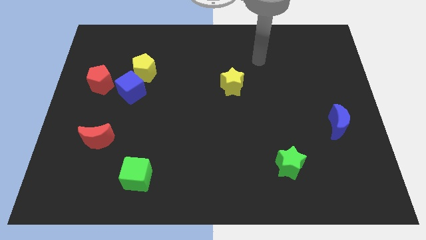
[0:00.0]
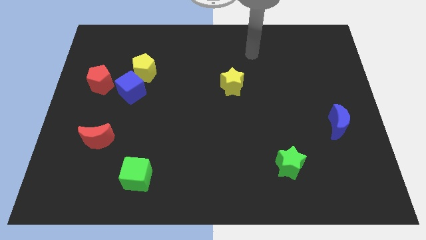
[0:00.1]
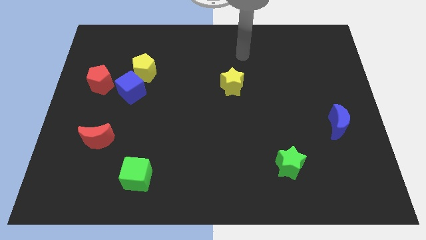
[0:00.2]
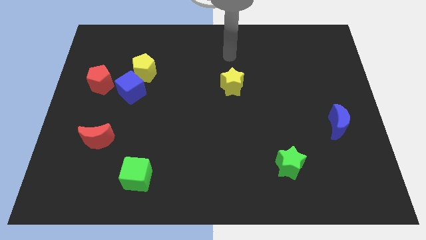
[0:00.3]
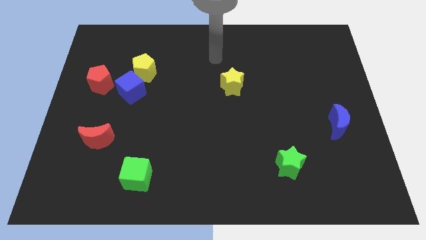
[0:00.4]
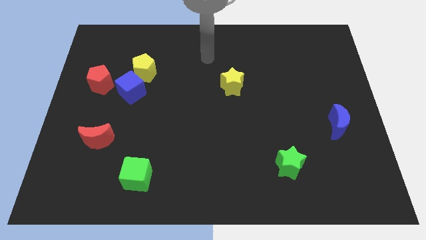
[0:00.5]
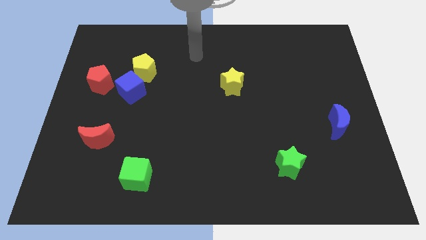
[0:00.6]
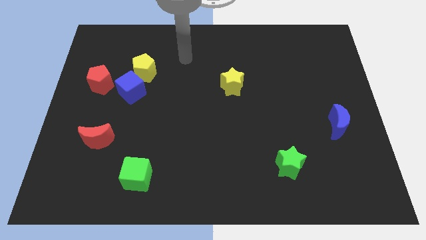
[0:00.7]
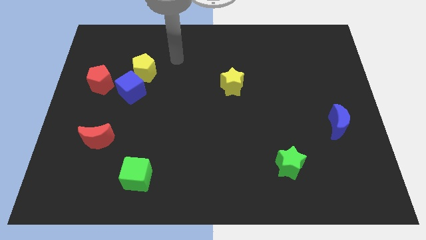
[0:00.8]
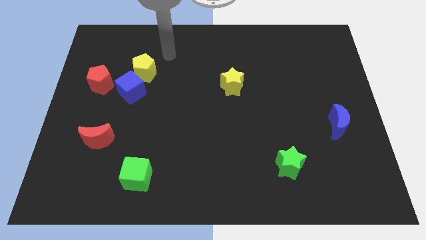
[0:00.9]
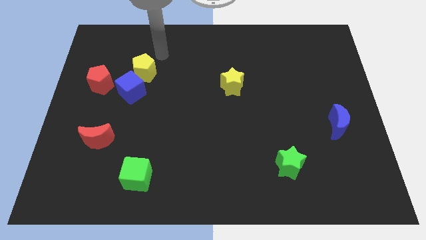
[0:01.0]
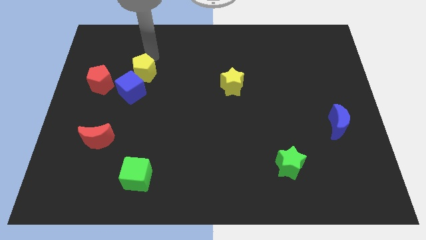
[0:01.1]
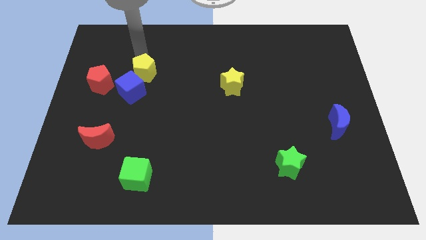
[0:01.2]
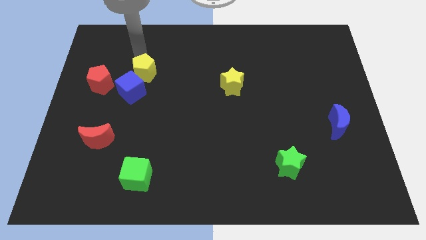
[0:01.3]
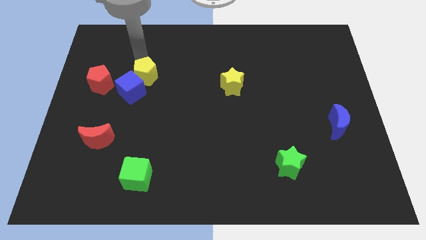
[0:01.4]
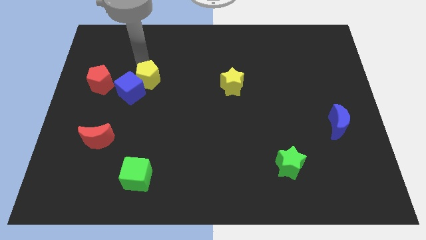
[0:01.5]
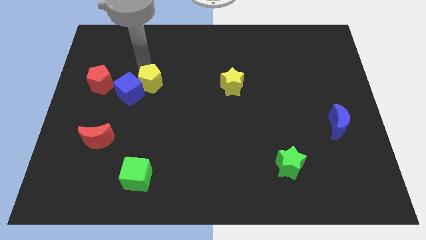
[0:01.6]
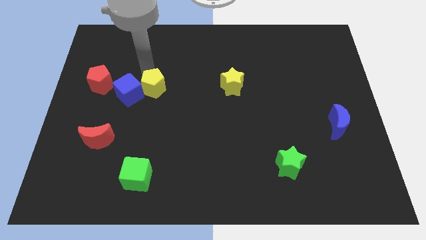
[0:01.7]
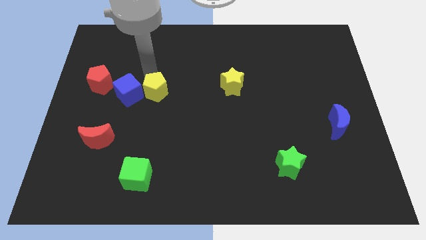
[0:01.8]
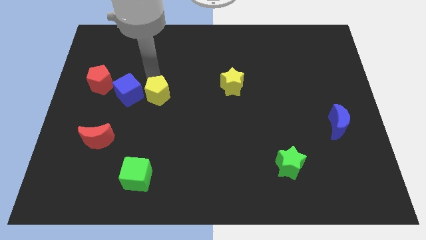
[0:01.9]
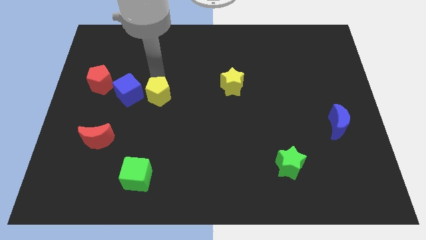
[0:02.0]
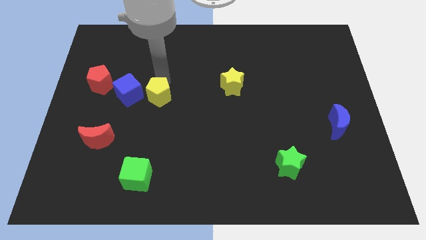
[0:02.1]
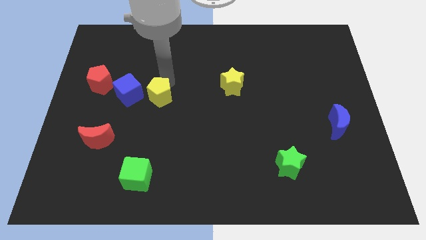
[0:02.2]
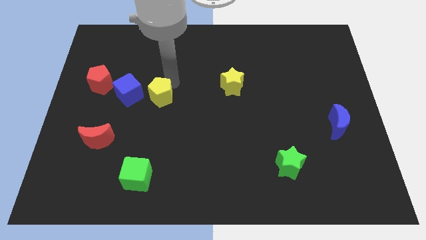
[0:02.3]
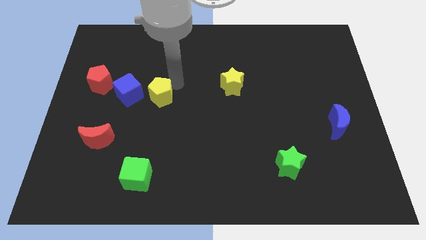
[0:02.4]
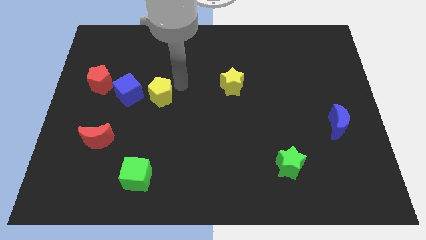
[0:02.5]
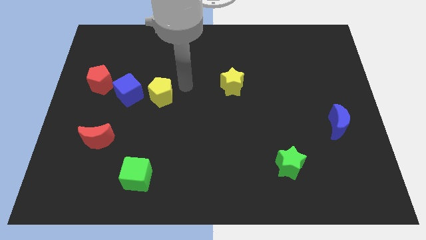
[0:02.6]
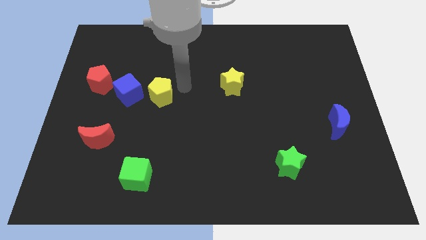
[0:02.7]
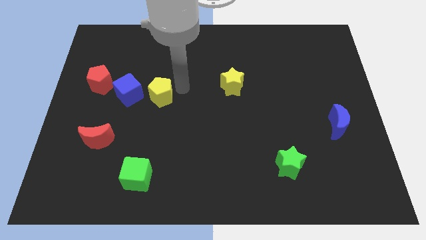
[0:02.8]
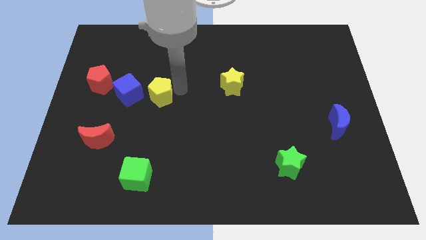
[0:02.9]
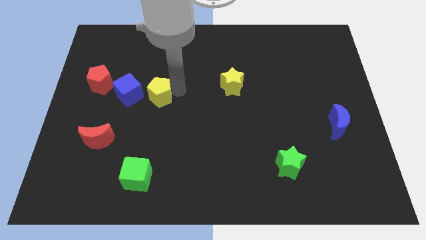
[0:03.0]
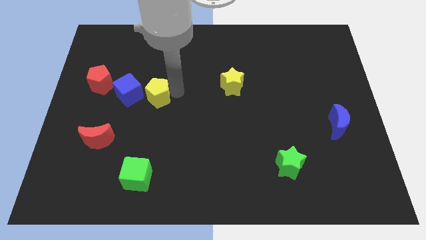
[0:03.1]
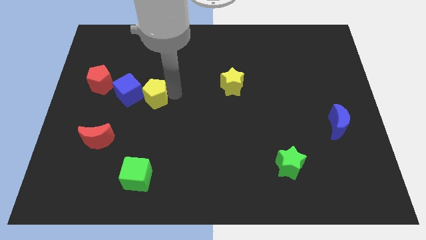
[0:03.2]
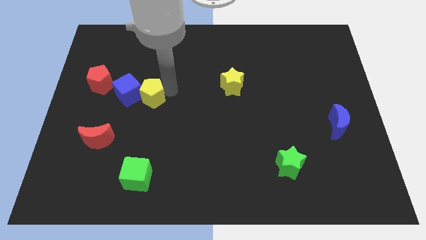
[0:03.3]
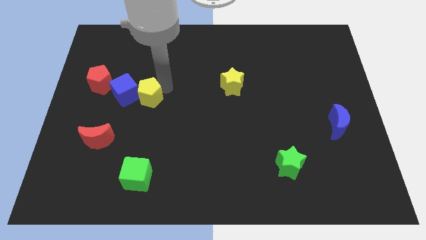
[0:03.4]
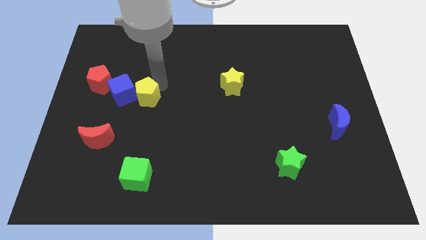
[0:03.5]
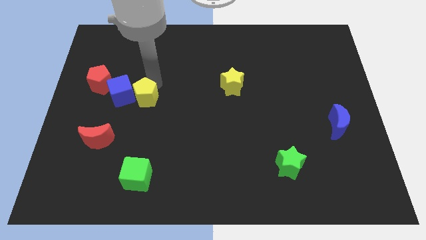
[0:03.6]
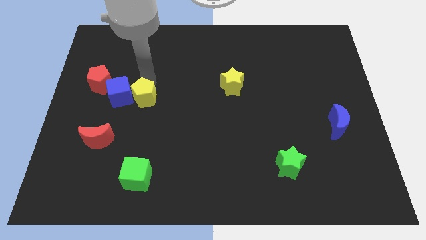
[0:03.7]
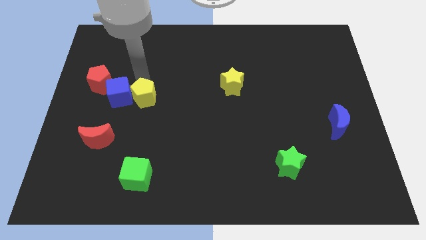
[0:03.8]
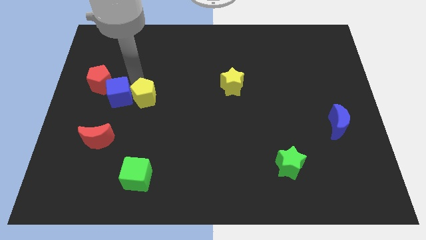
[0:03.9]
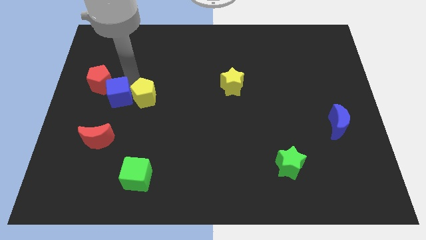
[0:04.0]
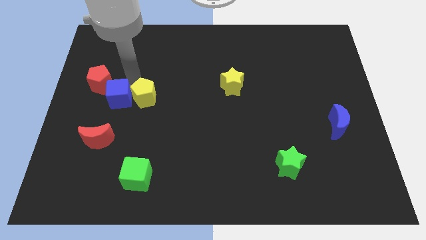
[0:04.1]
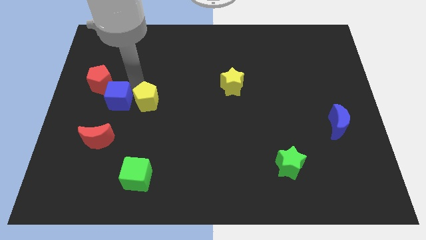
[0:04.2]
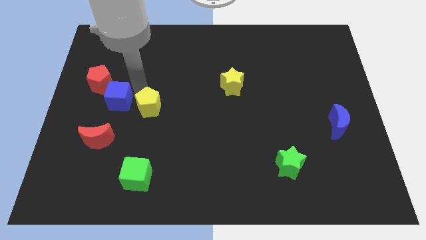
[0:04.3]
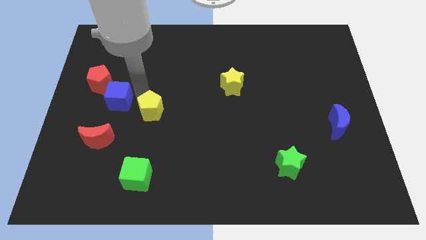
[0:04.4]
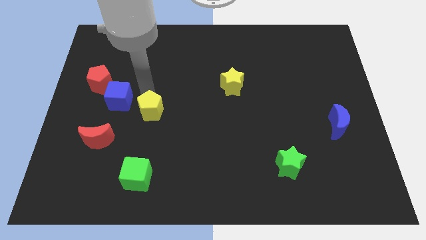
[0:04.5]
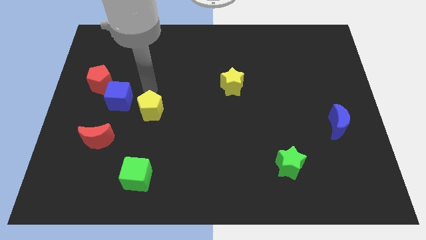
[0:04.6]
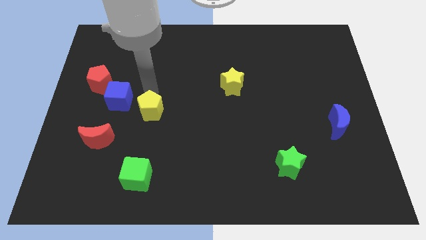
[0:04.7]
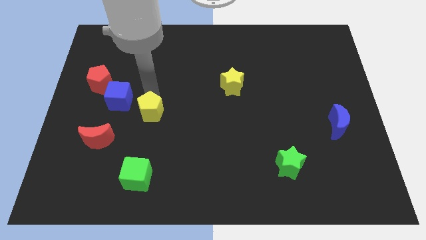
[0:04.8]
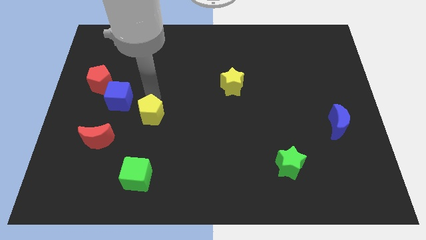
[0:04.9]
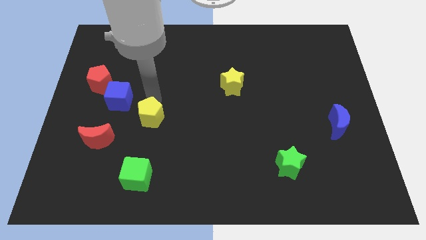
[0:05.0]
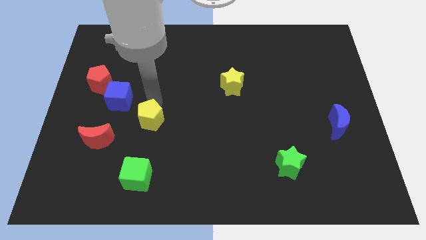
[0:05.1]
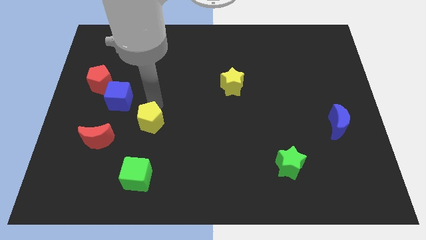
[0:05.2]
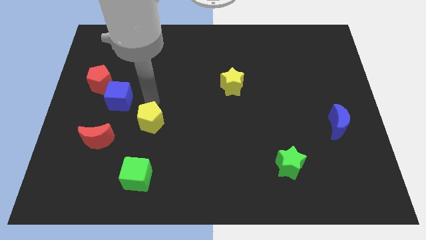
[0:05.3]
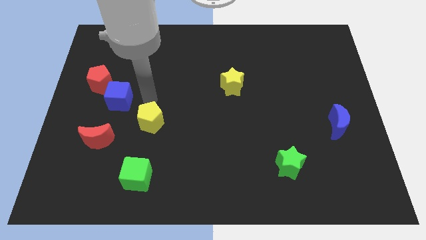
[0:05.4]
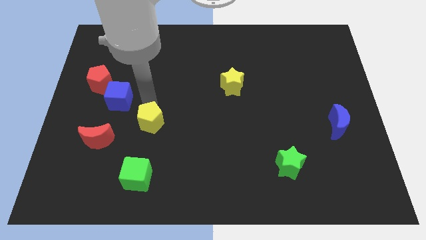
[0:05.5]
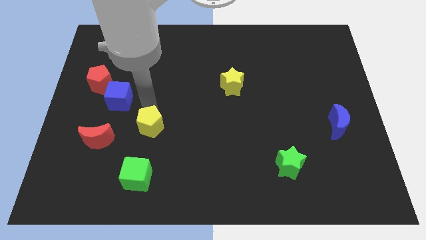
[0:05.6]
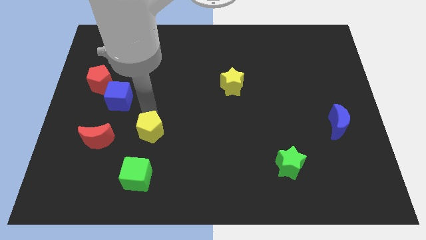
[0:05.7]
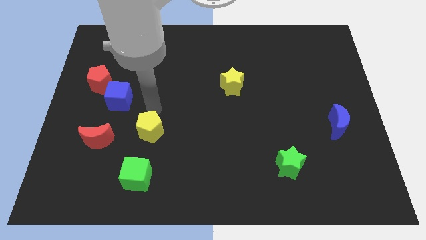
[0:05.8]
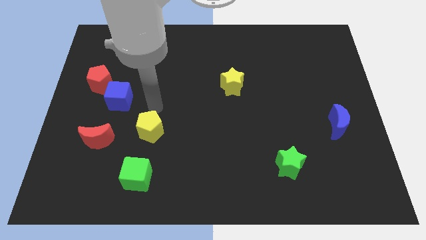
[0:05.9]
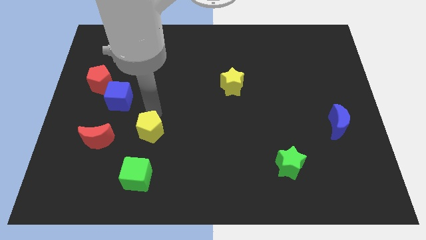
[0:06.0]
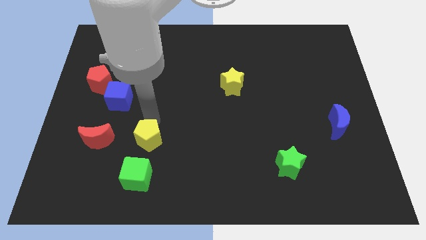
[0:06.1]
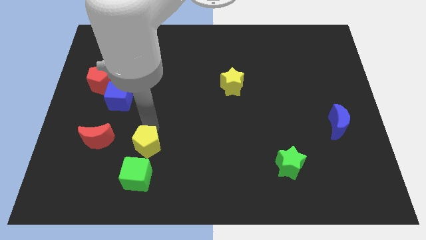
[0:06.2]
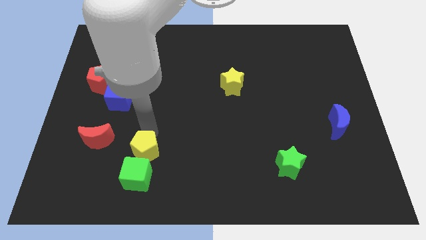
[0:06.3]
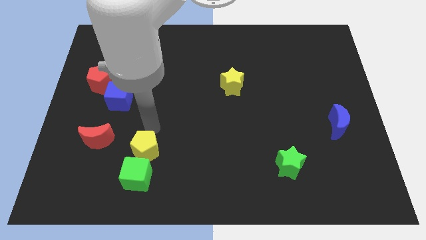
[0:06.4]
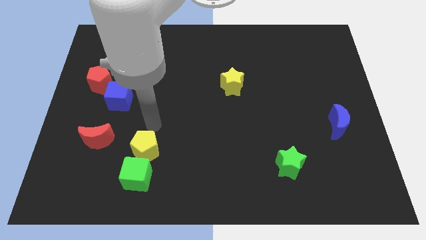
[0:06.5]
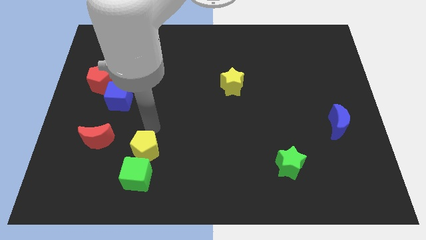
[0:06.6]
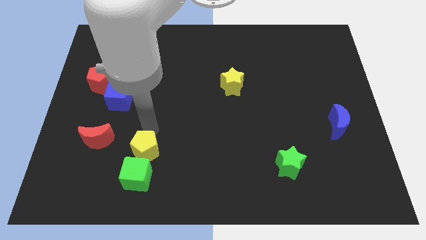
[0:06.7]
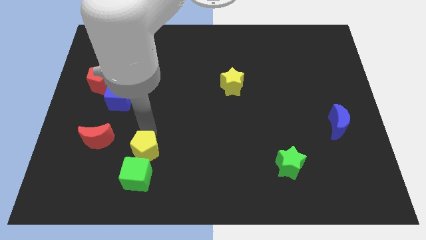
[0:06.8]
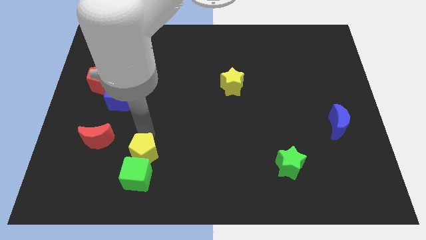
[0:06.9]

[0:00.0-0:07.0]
push the yellow pentagon close to the green cube

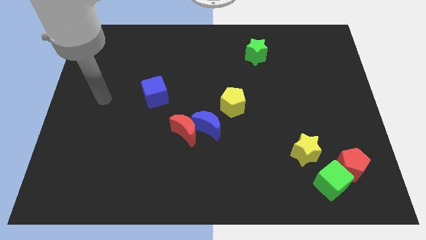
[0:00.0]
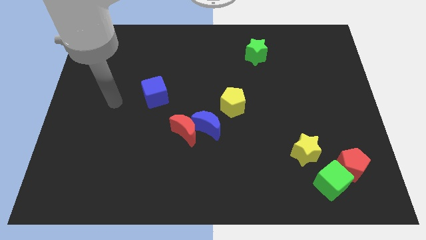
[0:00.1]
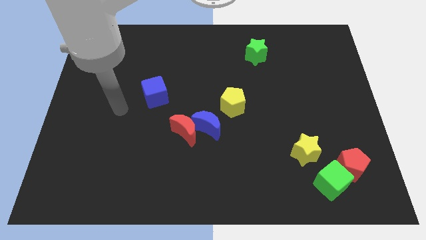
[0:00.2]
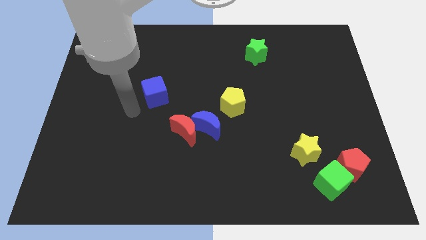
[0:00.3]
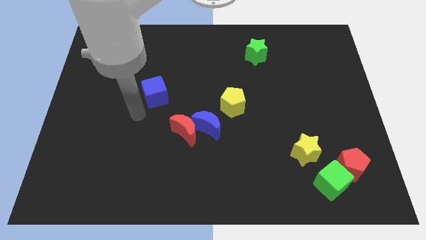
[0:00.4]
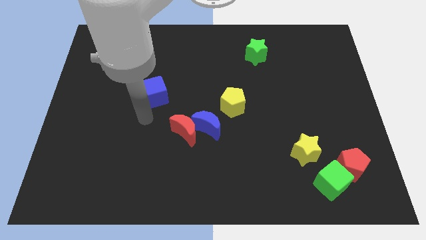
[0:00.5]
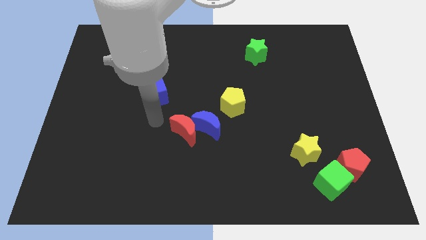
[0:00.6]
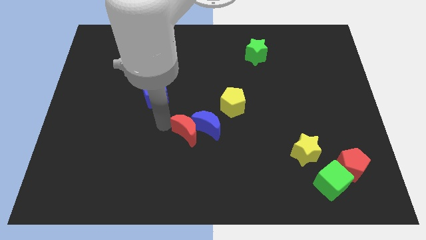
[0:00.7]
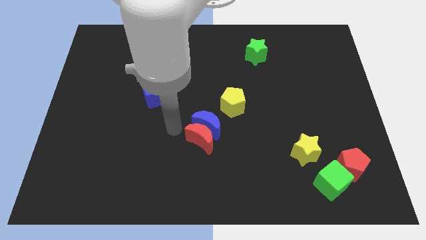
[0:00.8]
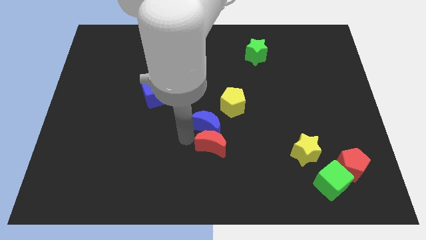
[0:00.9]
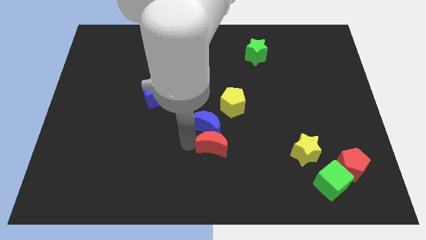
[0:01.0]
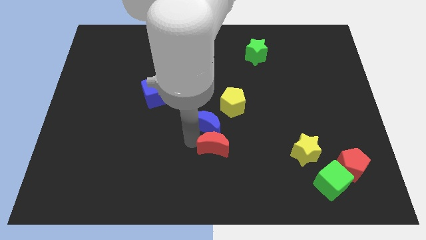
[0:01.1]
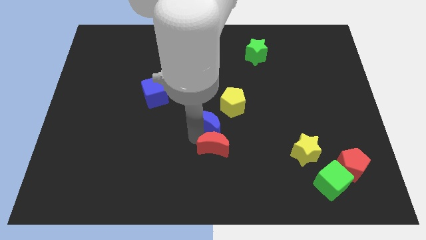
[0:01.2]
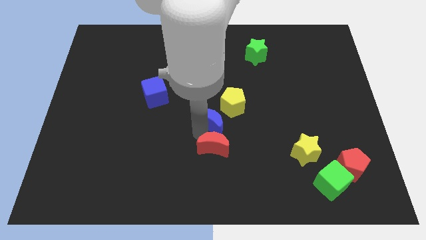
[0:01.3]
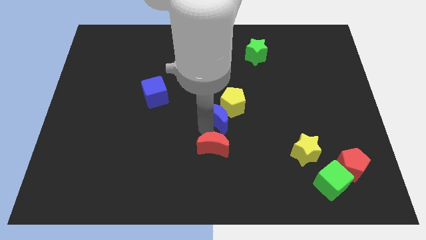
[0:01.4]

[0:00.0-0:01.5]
slide the blue moon to the yellow pentagon
